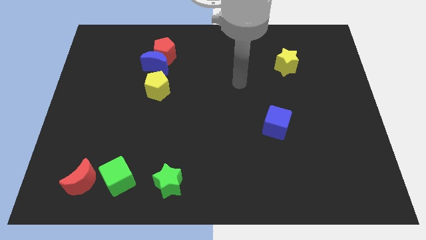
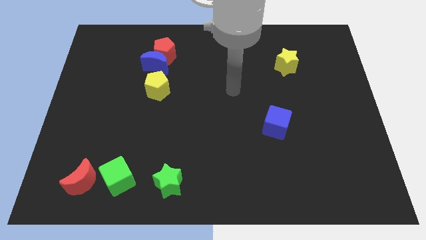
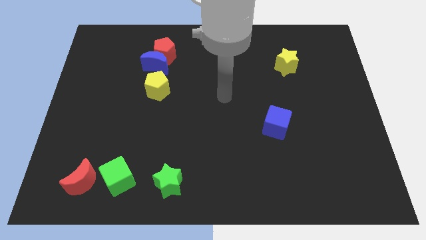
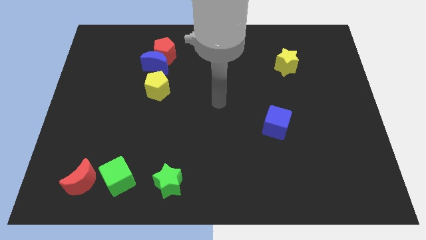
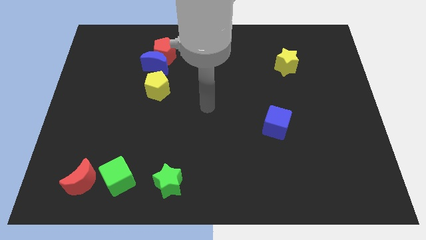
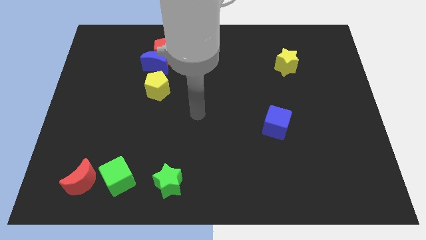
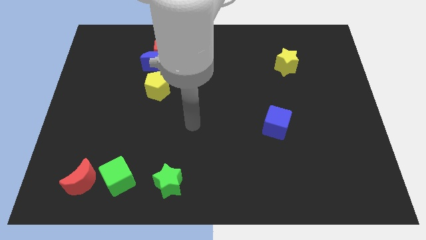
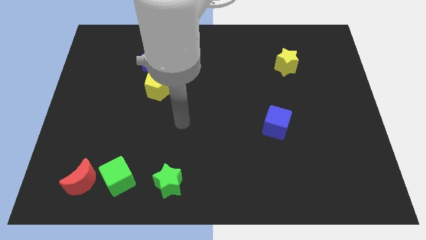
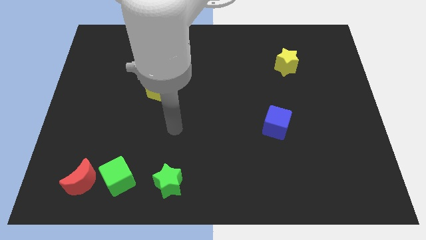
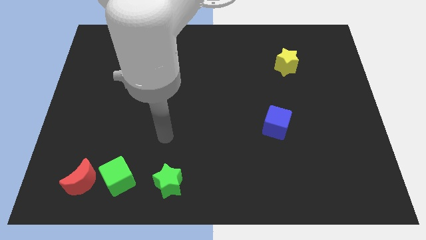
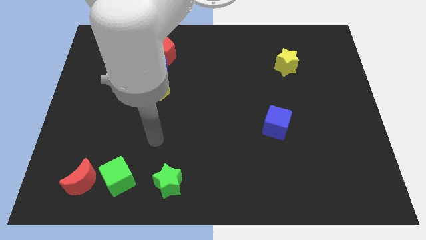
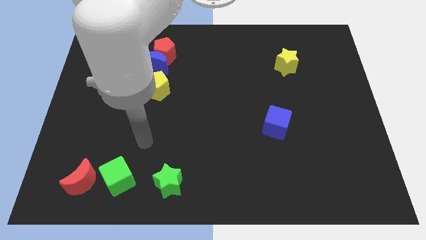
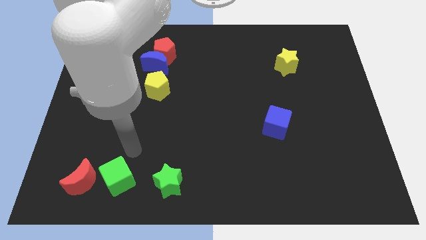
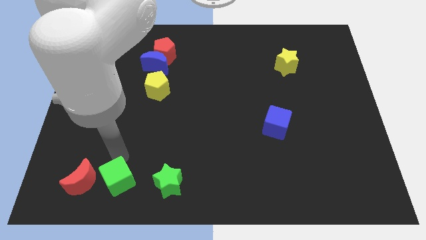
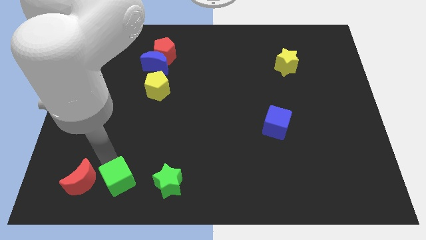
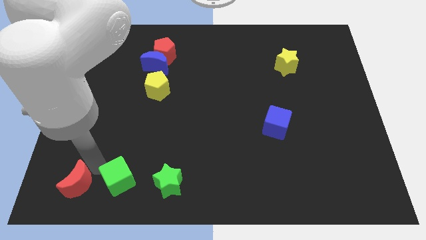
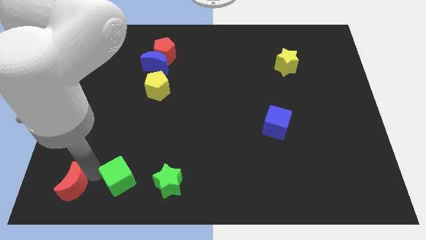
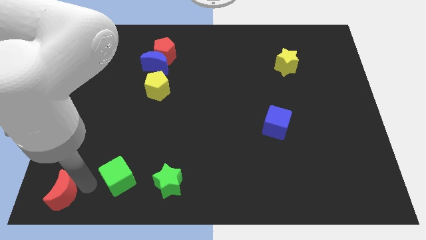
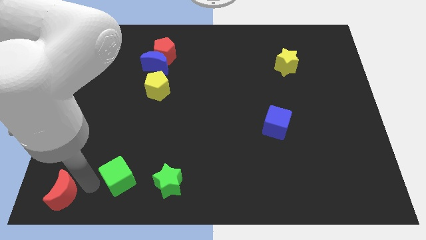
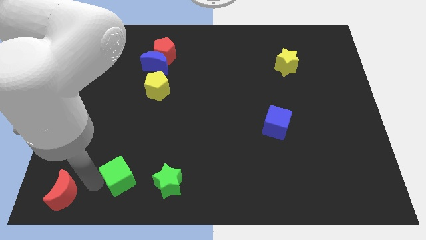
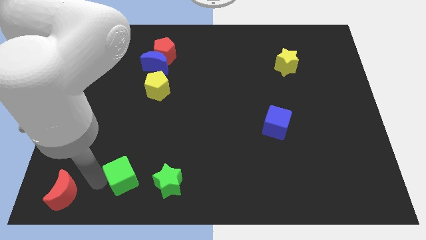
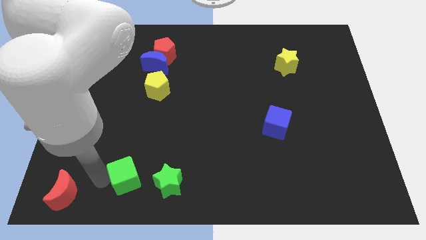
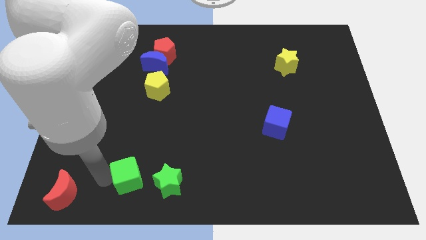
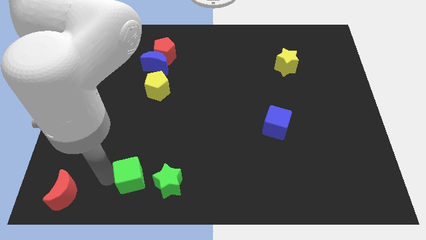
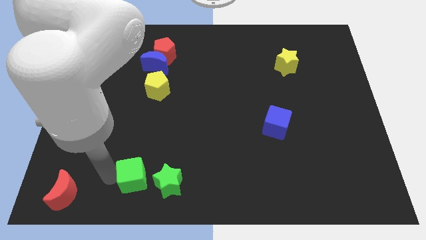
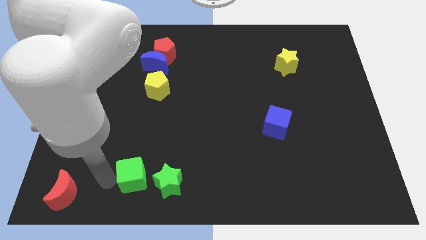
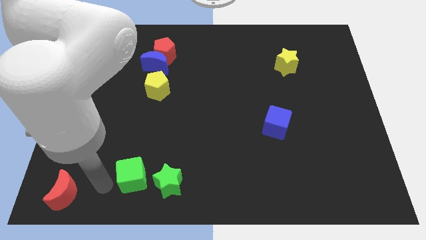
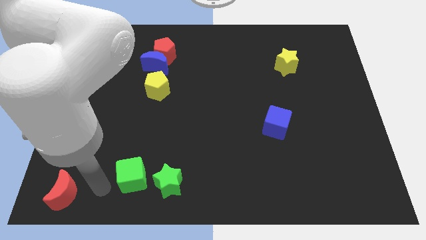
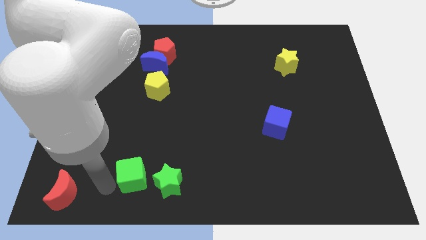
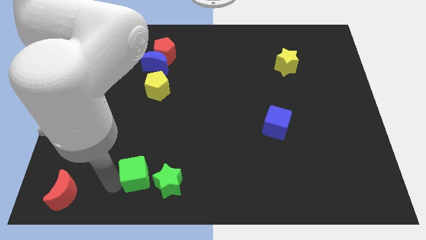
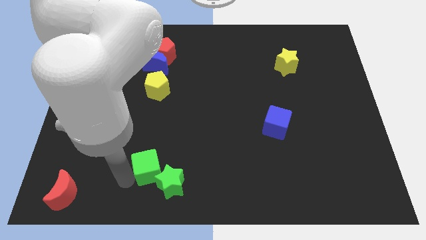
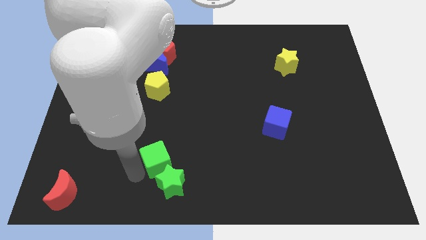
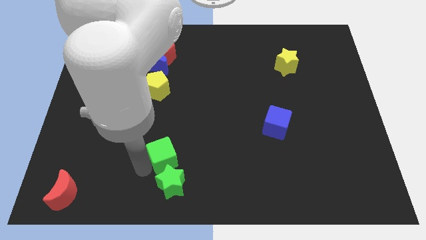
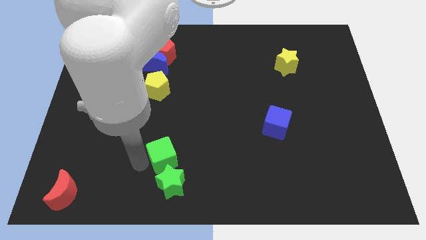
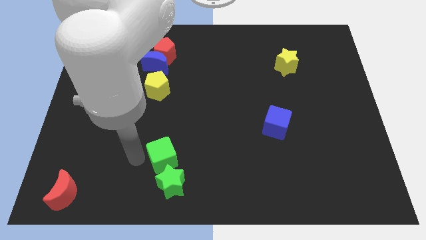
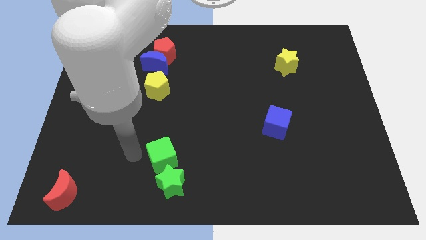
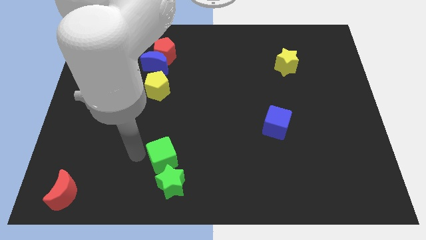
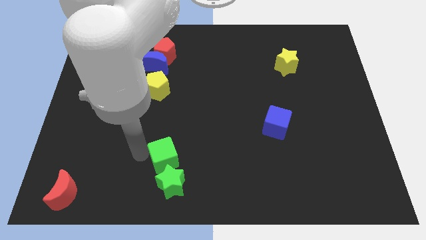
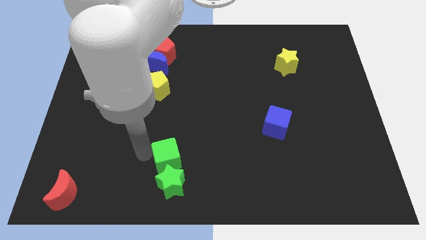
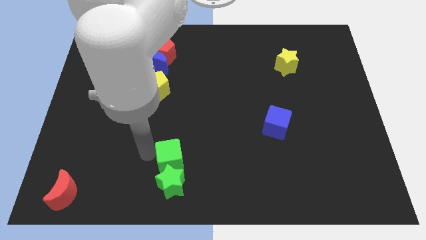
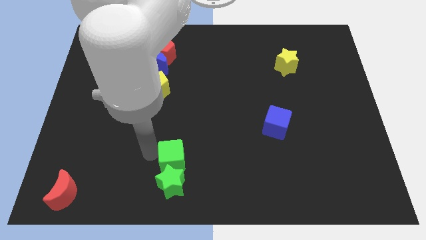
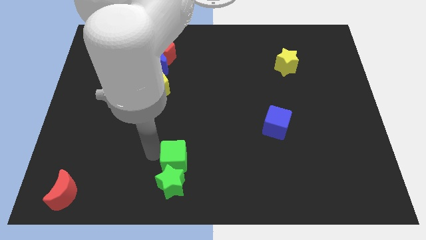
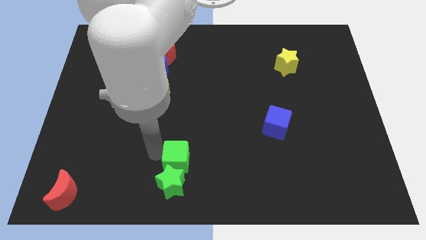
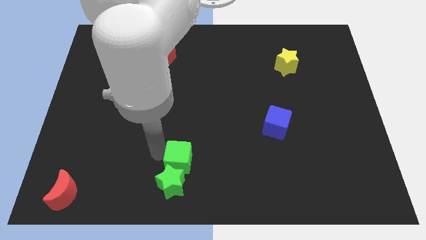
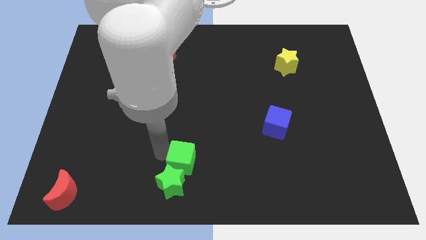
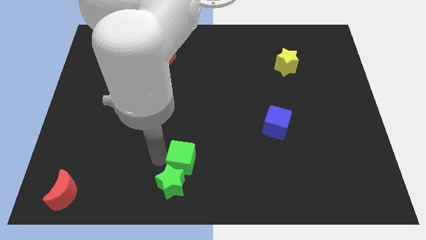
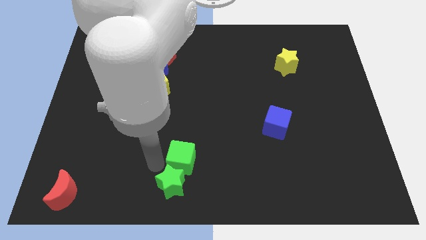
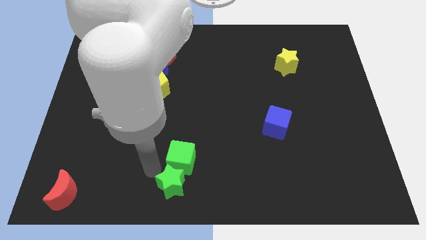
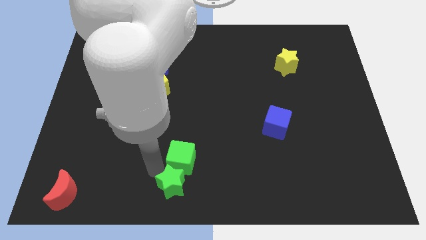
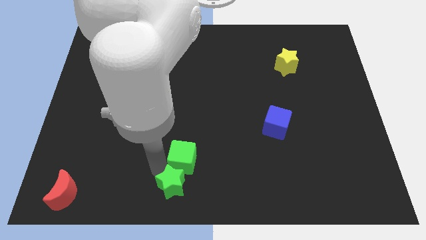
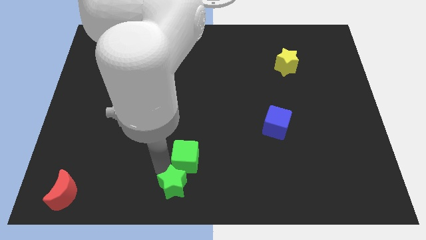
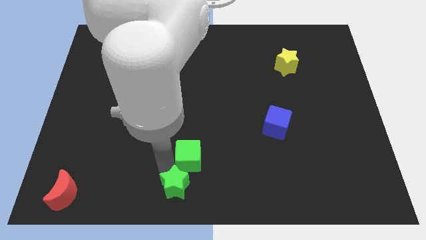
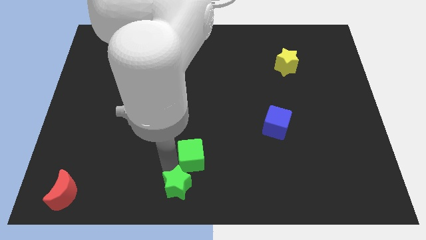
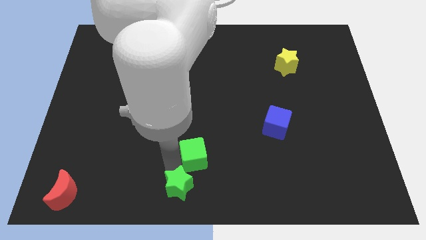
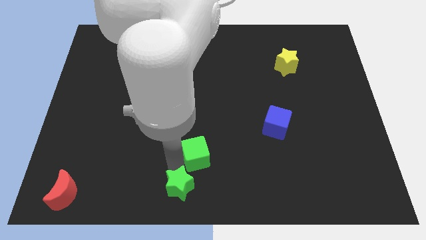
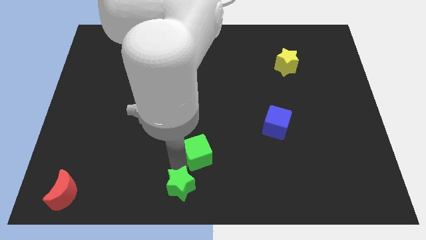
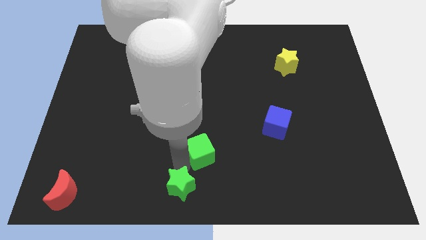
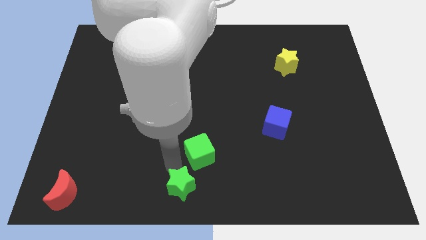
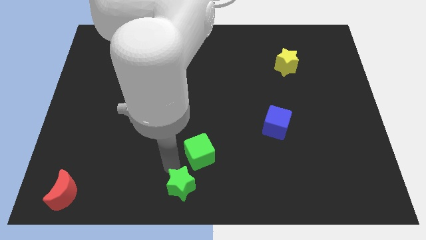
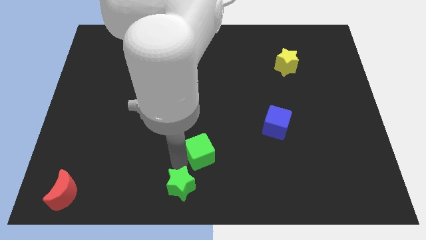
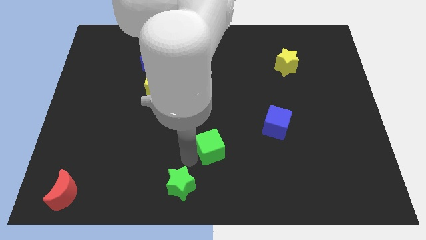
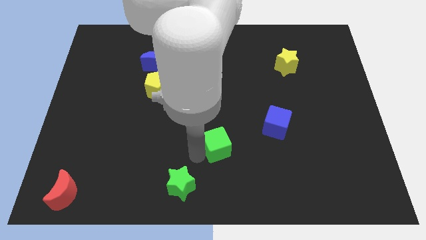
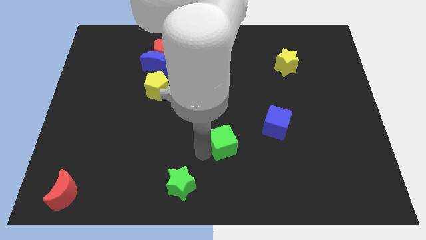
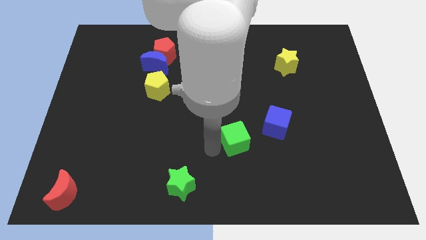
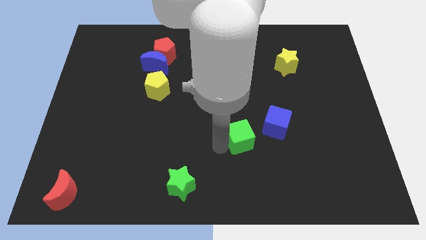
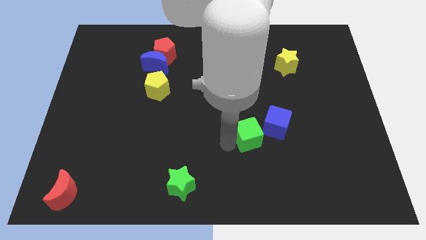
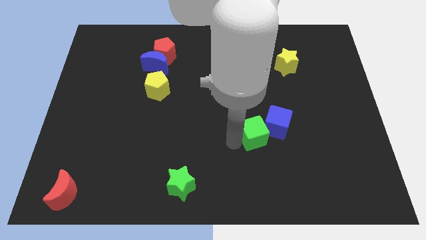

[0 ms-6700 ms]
slide the green cube close to the blue cube

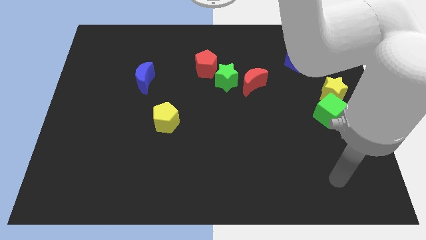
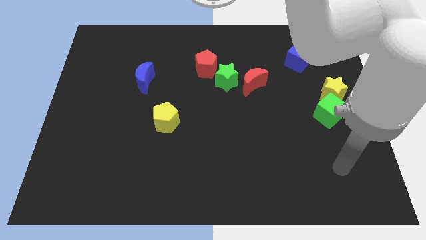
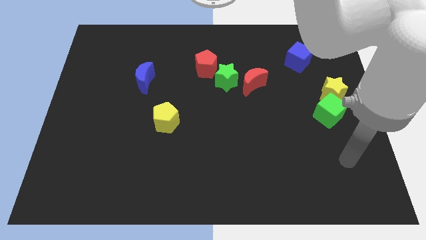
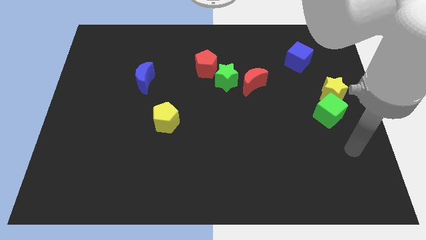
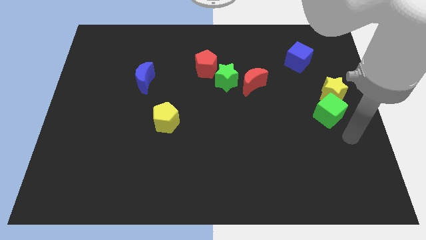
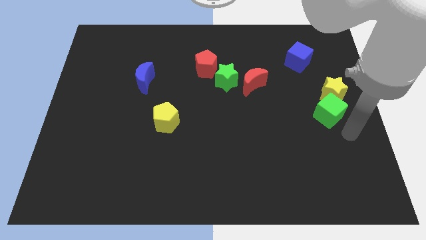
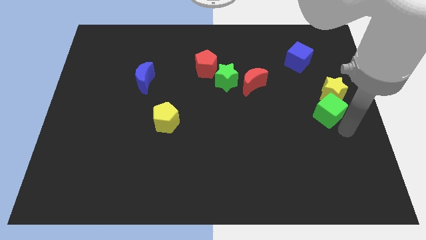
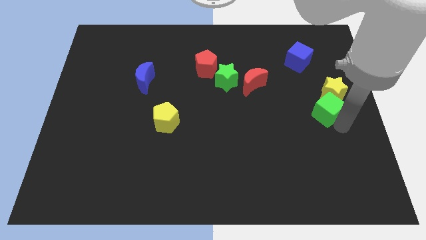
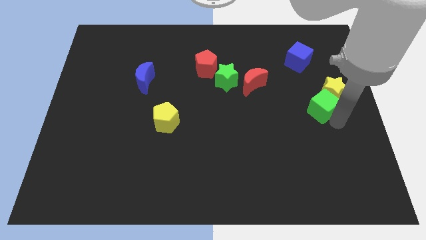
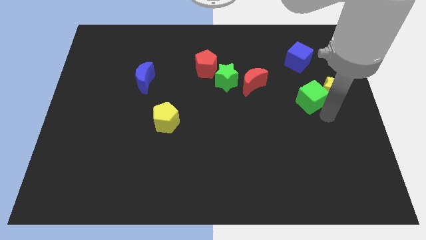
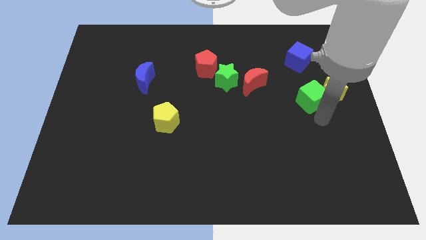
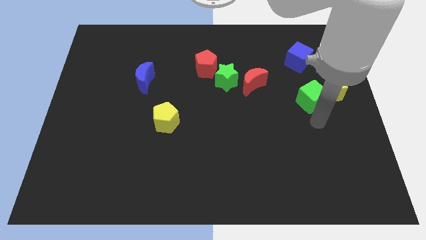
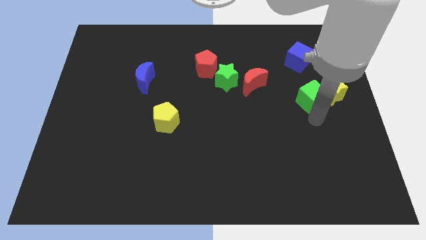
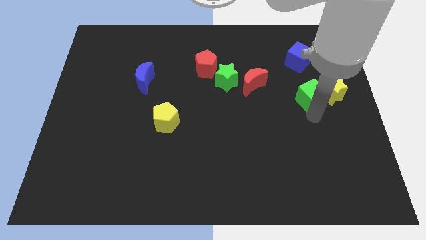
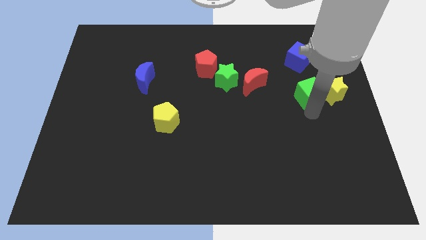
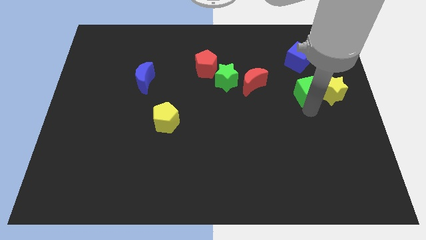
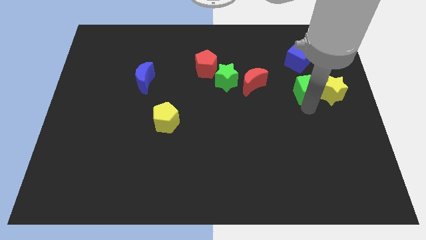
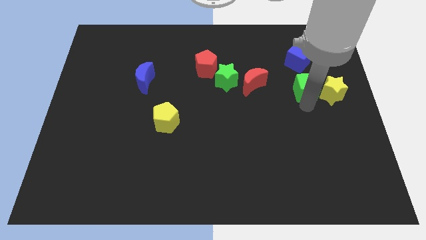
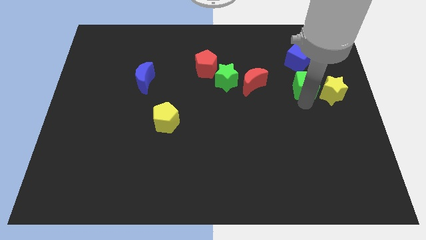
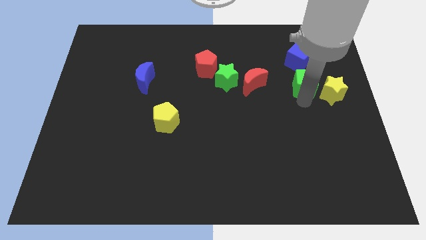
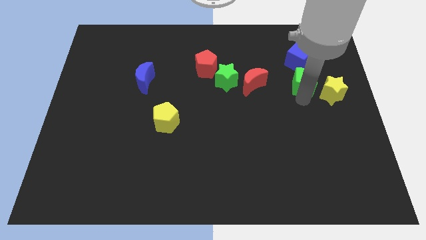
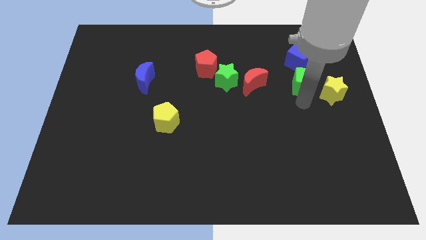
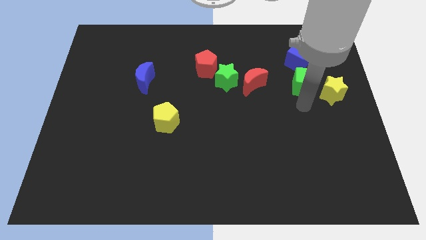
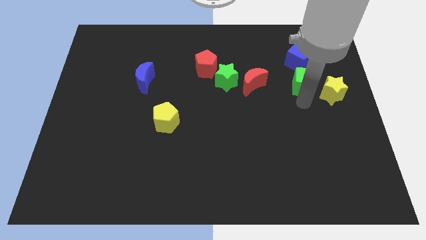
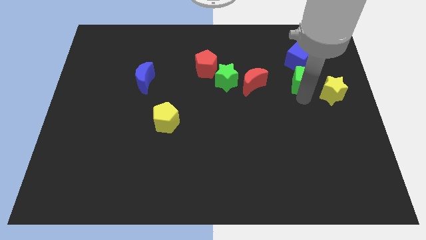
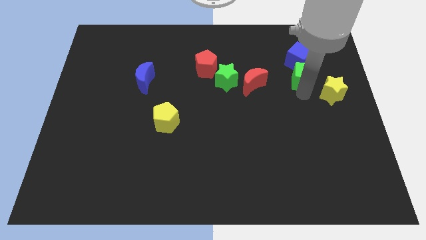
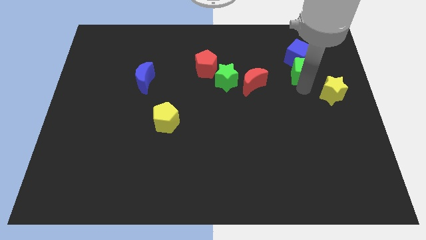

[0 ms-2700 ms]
push the green cube towards the blue cube
